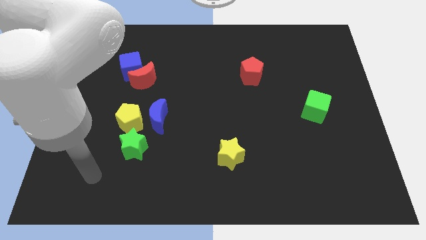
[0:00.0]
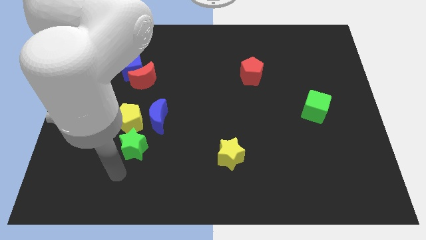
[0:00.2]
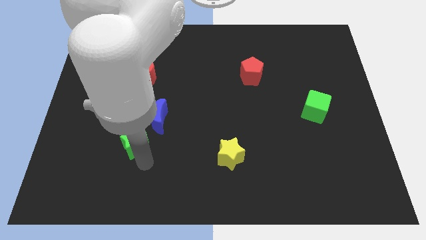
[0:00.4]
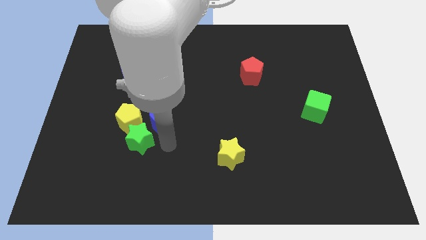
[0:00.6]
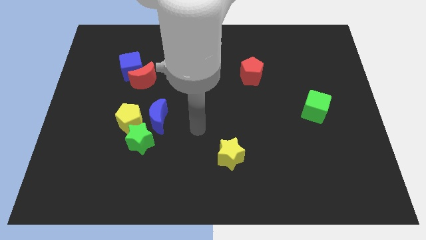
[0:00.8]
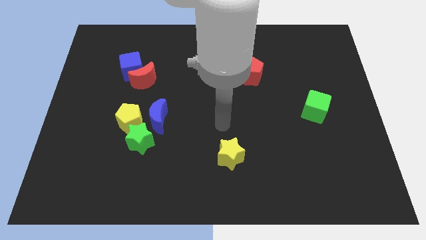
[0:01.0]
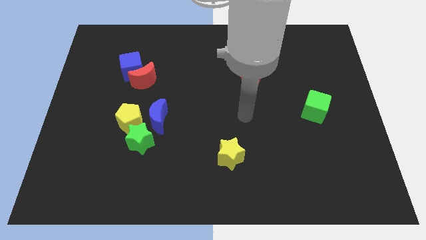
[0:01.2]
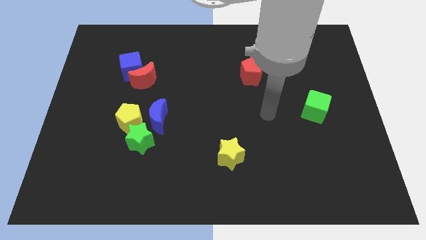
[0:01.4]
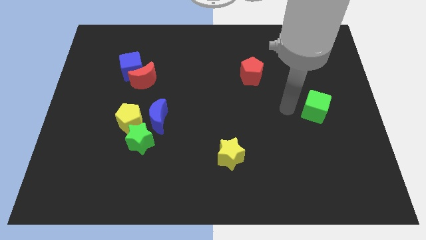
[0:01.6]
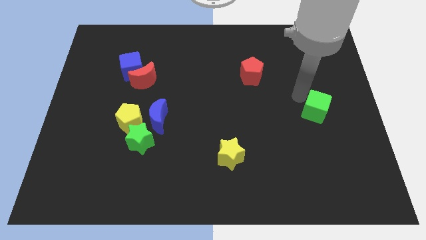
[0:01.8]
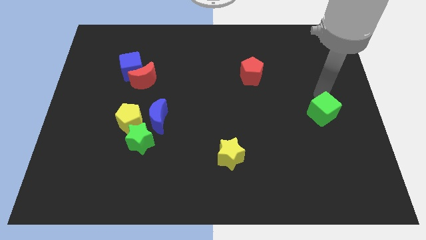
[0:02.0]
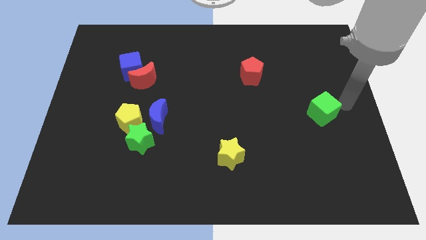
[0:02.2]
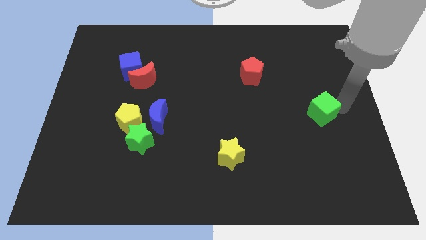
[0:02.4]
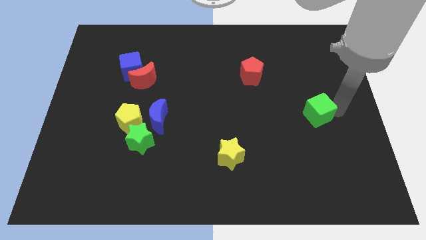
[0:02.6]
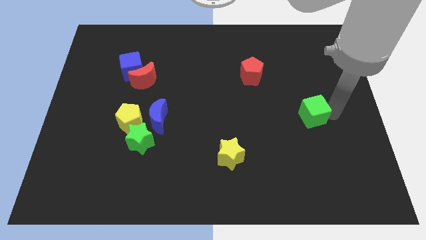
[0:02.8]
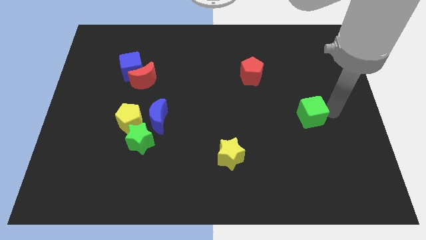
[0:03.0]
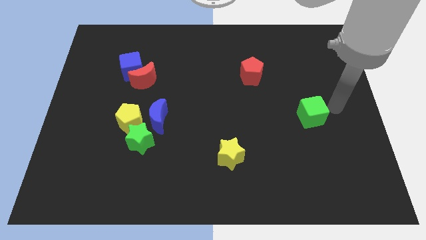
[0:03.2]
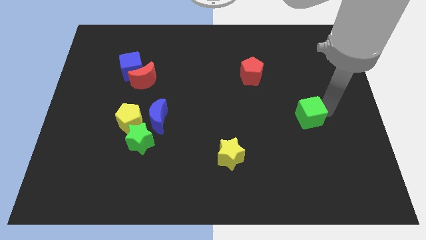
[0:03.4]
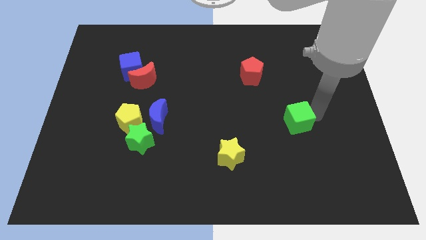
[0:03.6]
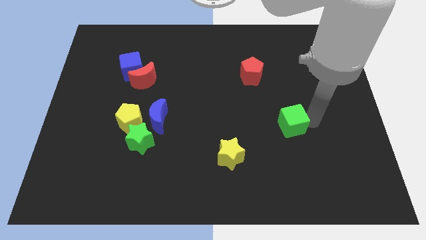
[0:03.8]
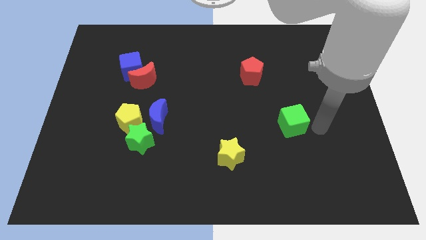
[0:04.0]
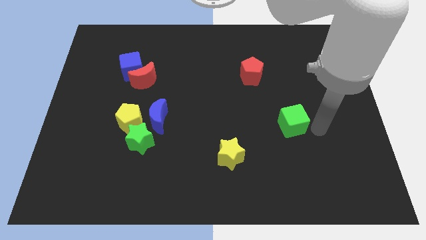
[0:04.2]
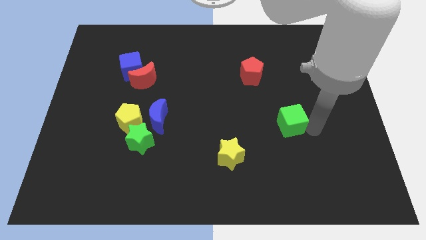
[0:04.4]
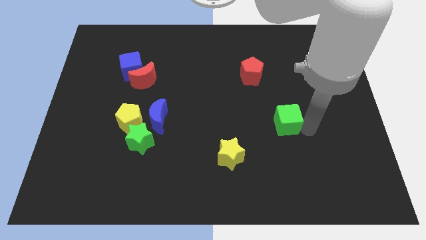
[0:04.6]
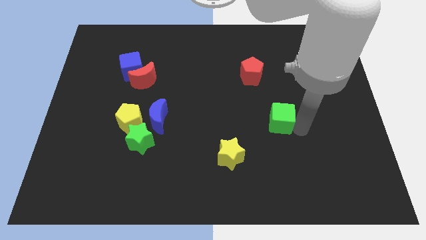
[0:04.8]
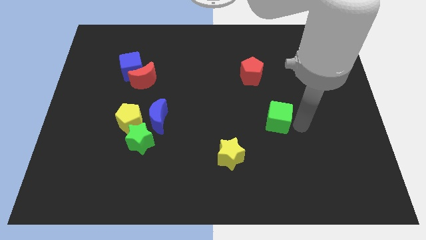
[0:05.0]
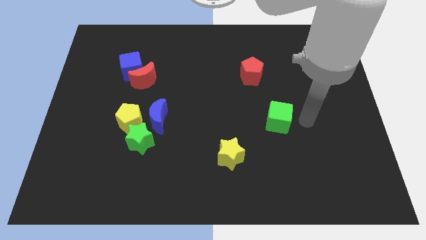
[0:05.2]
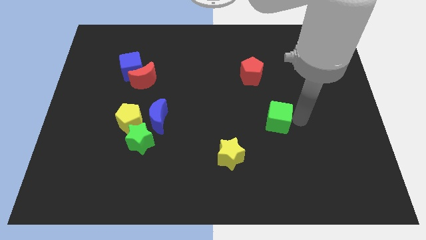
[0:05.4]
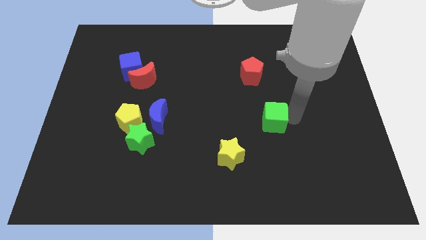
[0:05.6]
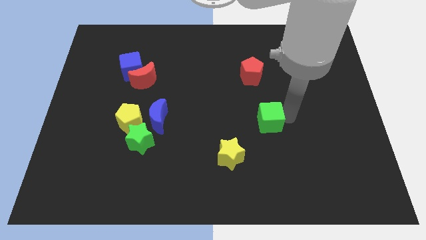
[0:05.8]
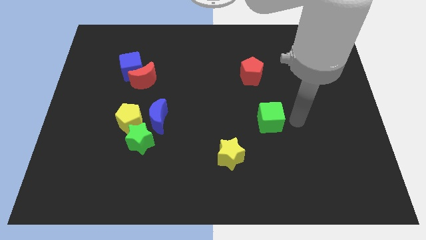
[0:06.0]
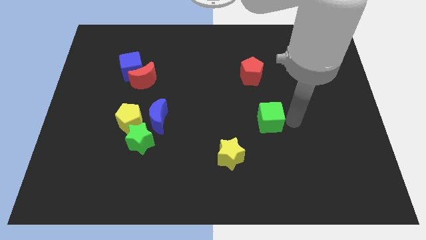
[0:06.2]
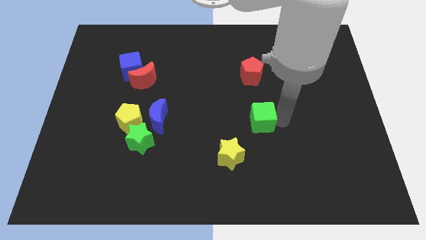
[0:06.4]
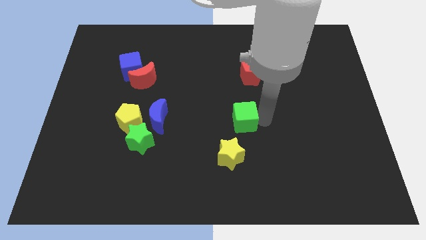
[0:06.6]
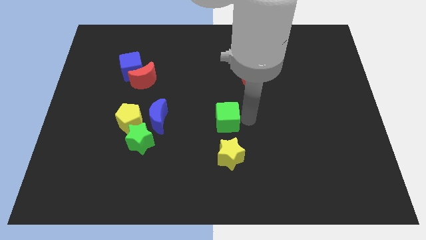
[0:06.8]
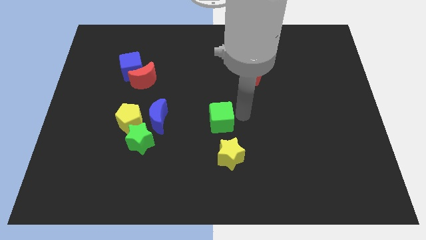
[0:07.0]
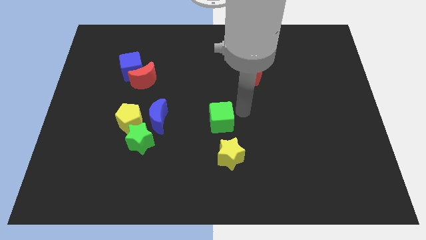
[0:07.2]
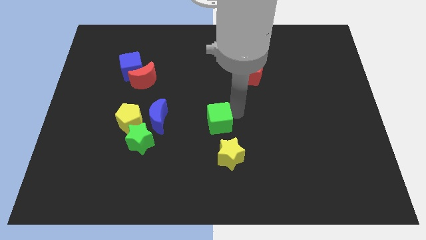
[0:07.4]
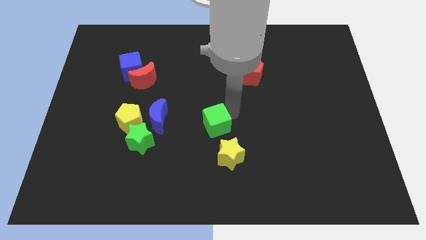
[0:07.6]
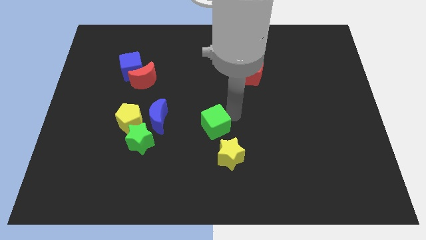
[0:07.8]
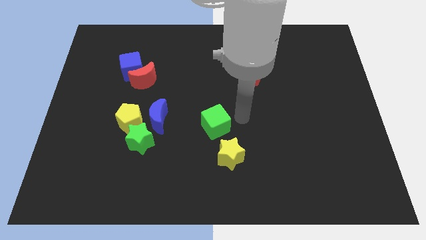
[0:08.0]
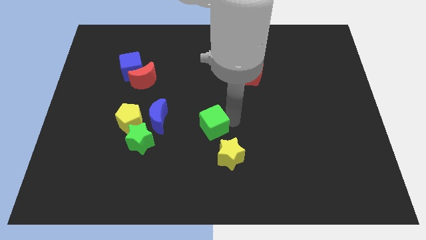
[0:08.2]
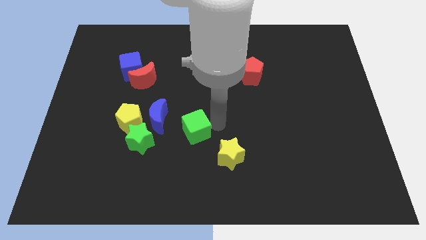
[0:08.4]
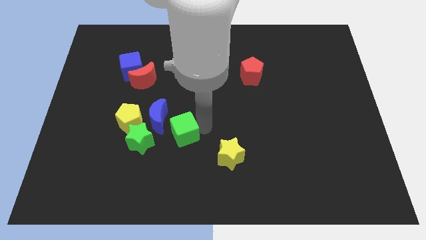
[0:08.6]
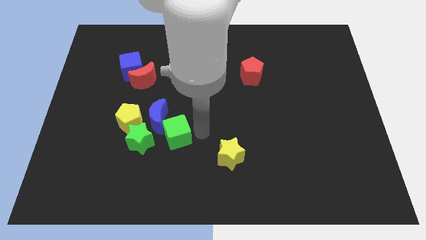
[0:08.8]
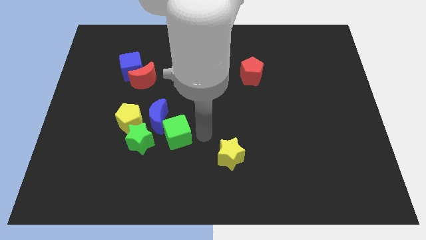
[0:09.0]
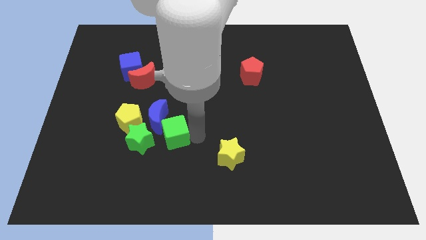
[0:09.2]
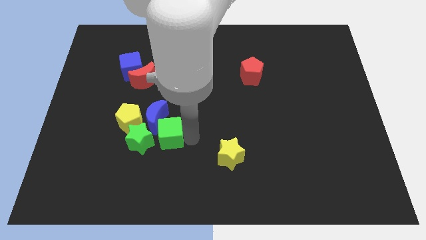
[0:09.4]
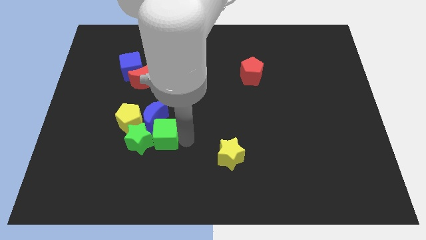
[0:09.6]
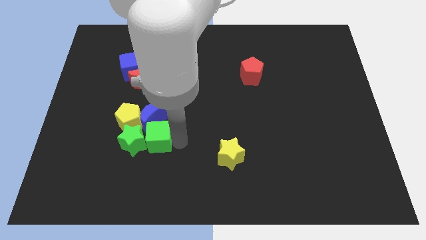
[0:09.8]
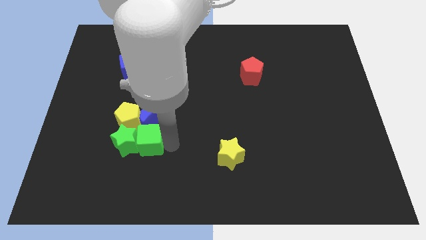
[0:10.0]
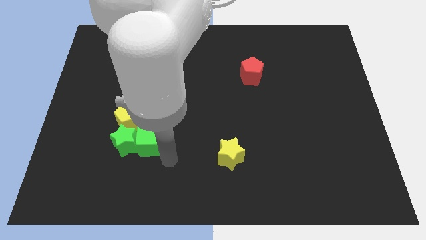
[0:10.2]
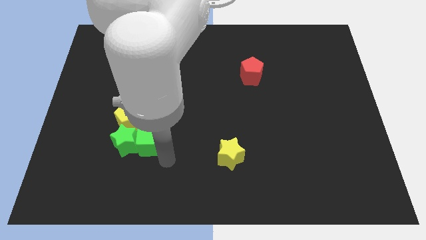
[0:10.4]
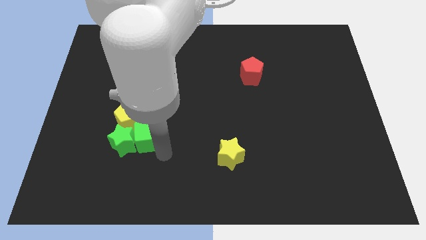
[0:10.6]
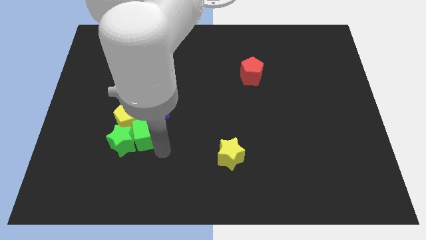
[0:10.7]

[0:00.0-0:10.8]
slide the green cube close to the yellow pentagon
